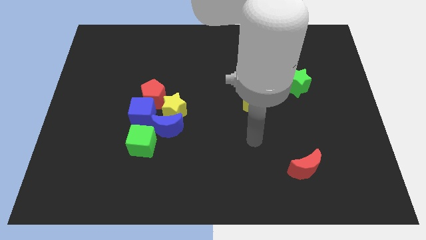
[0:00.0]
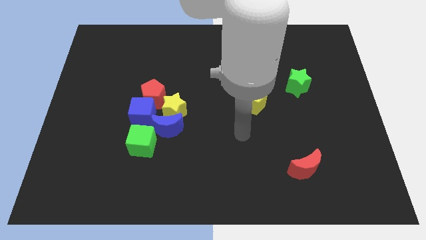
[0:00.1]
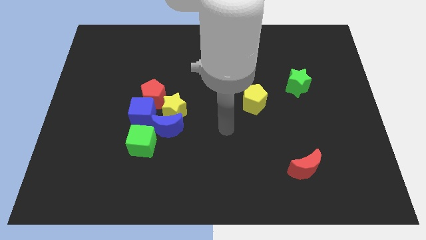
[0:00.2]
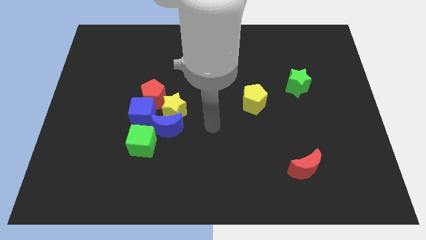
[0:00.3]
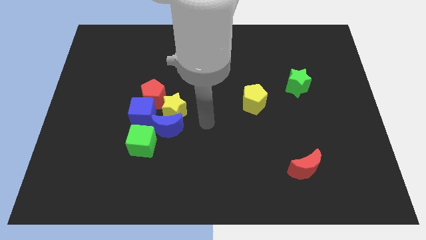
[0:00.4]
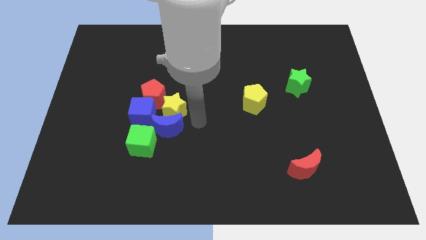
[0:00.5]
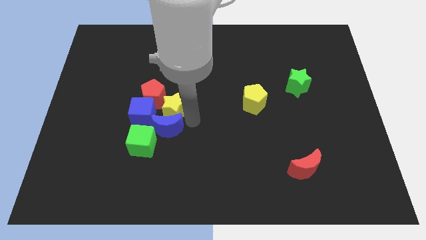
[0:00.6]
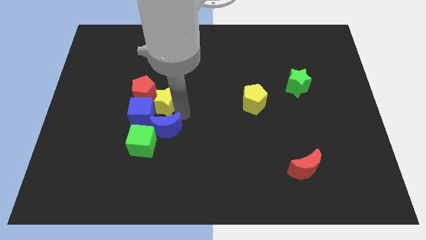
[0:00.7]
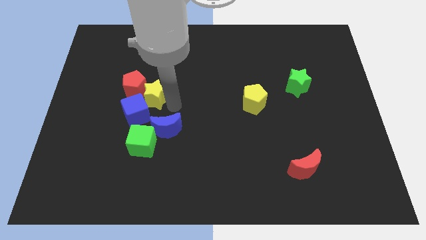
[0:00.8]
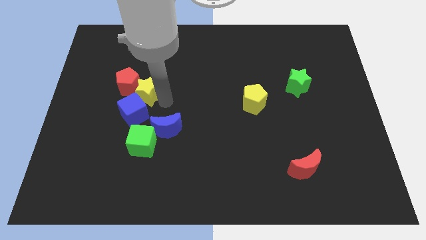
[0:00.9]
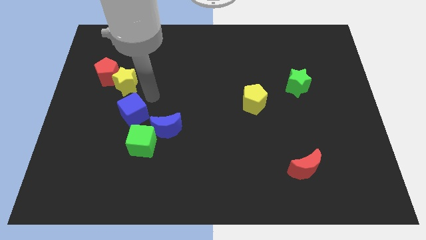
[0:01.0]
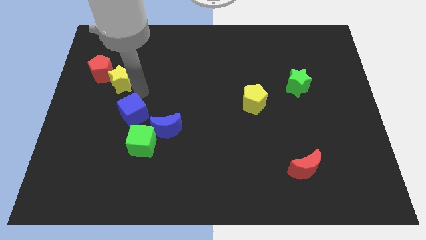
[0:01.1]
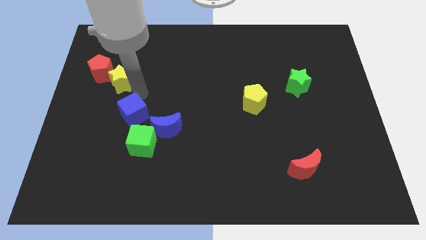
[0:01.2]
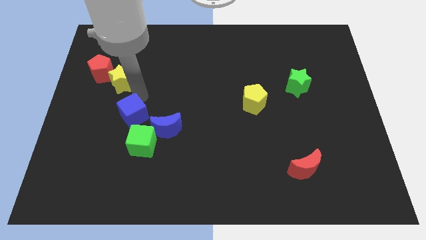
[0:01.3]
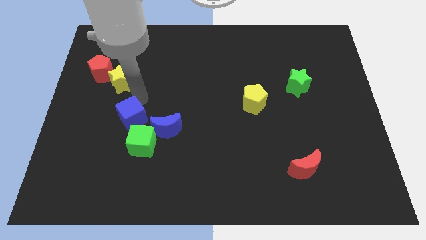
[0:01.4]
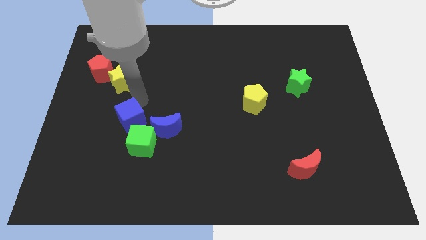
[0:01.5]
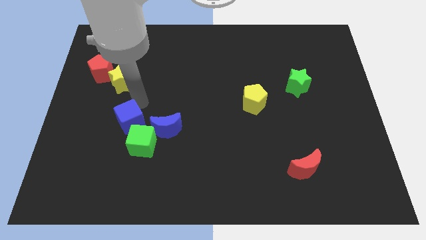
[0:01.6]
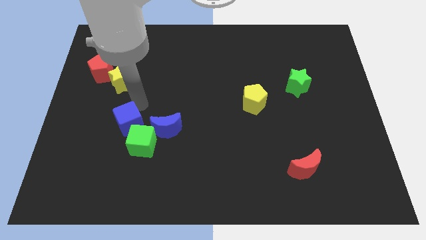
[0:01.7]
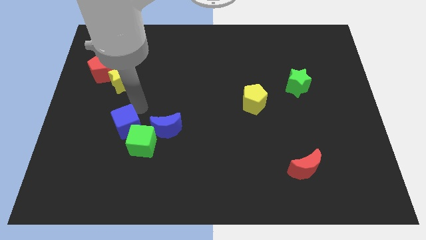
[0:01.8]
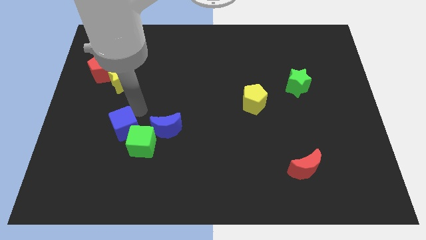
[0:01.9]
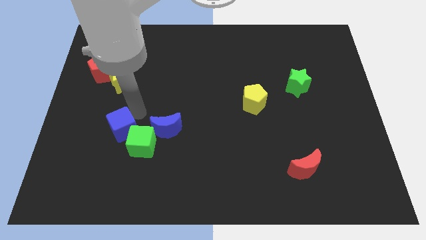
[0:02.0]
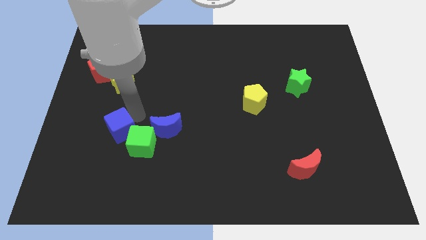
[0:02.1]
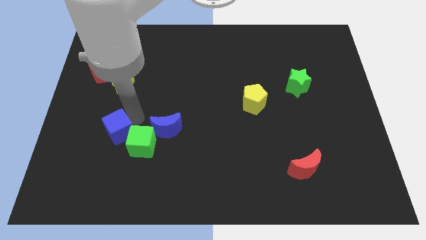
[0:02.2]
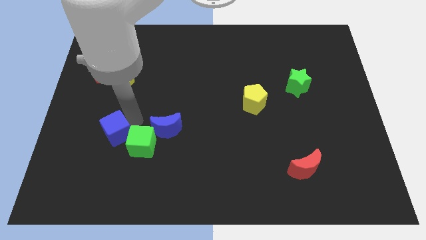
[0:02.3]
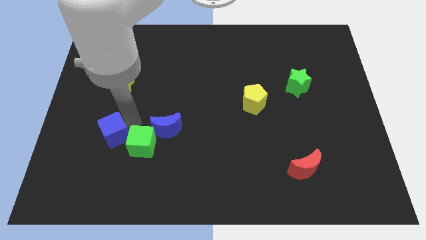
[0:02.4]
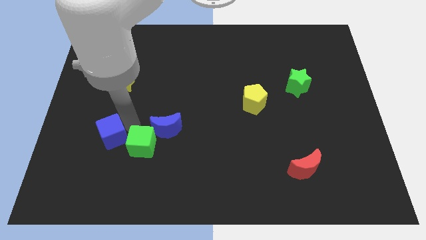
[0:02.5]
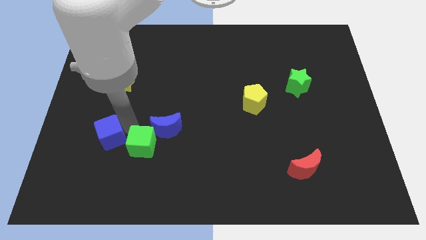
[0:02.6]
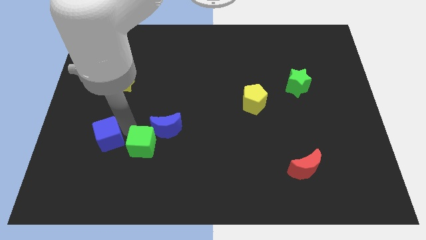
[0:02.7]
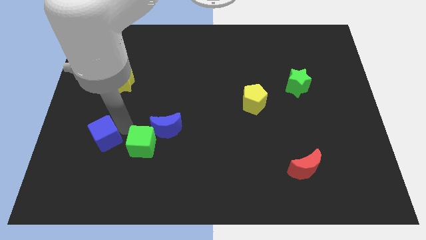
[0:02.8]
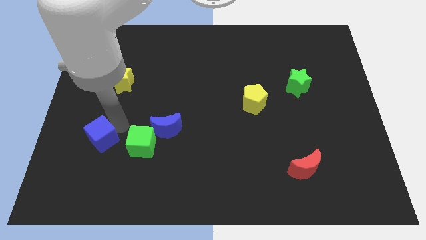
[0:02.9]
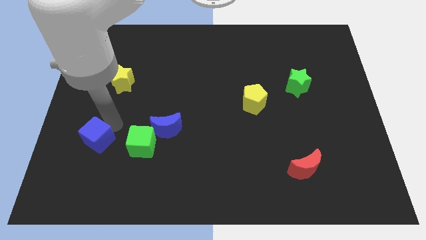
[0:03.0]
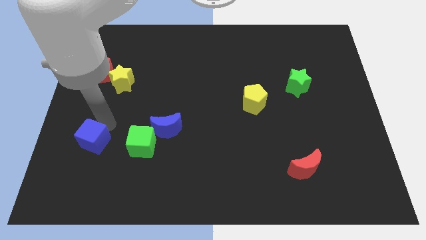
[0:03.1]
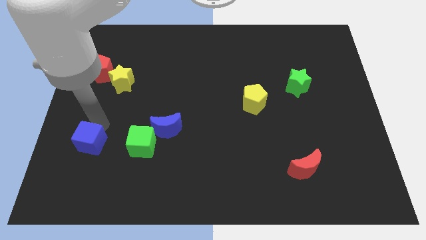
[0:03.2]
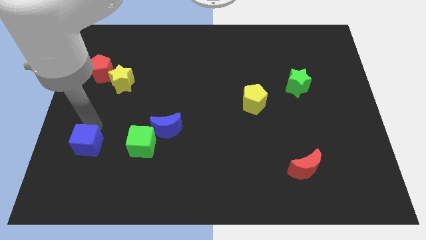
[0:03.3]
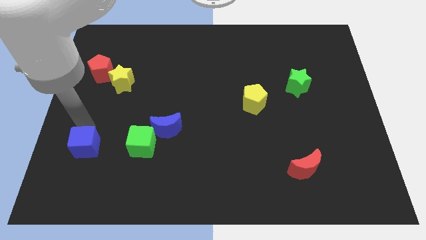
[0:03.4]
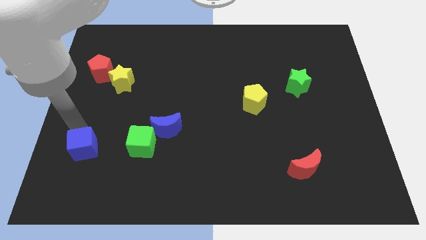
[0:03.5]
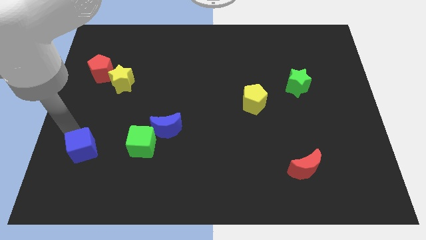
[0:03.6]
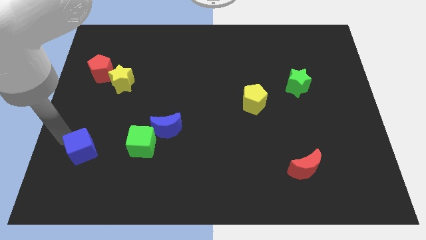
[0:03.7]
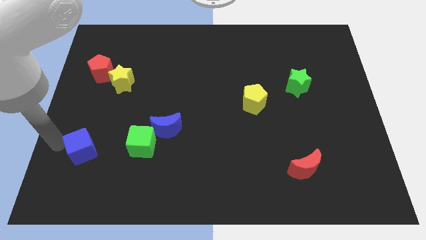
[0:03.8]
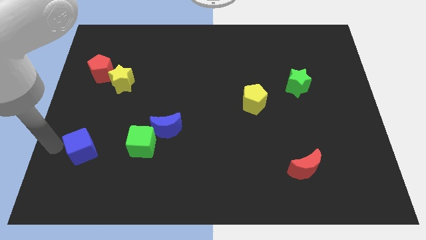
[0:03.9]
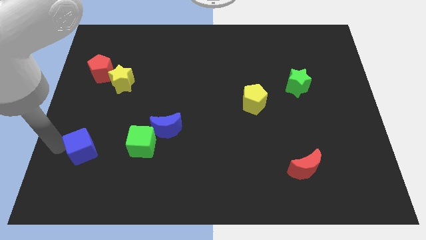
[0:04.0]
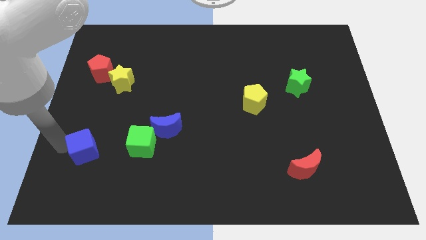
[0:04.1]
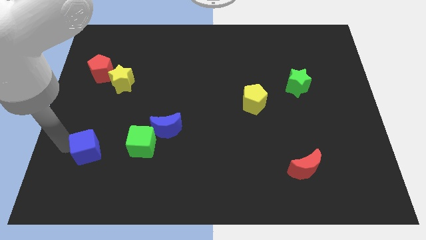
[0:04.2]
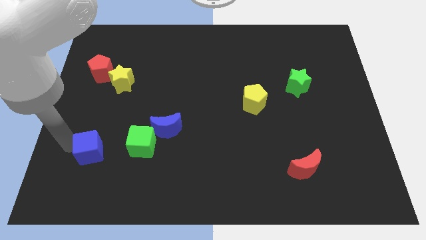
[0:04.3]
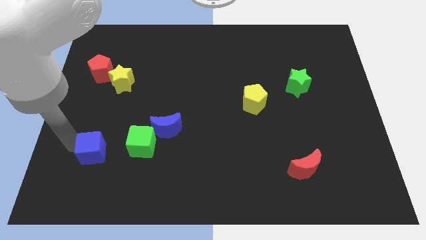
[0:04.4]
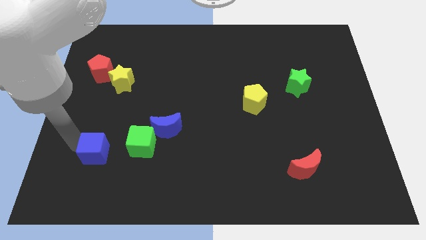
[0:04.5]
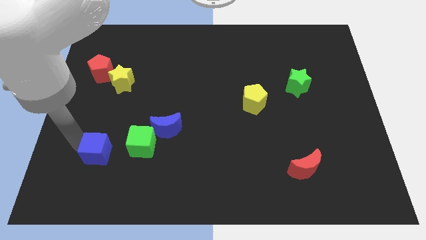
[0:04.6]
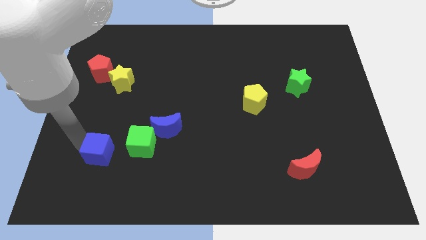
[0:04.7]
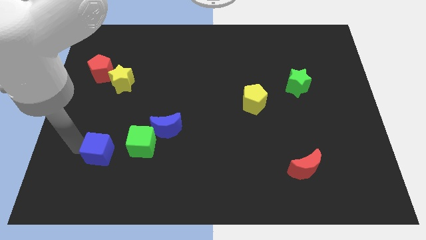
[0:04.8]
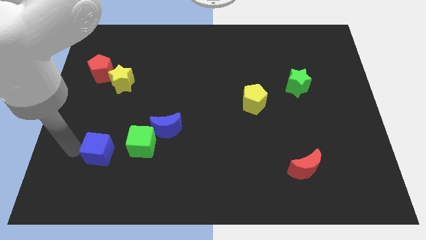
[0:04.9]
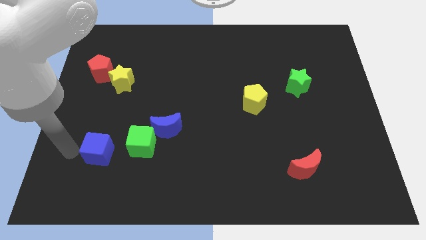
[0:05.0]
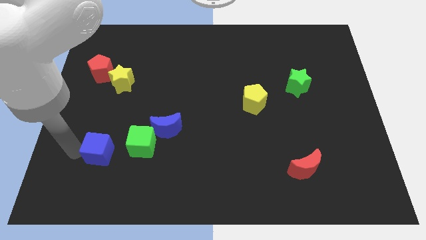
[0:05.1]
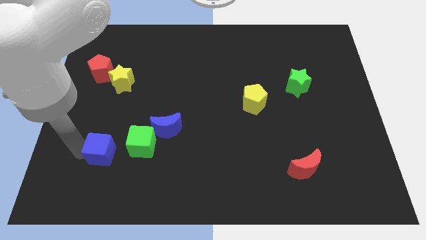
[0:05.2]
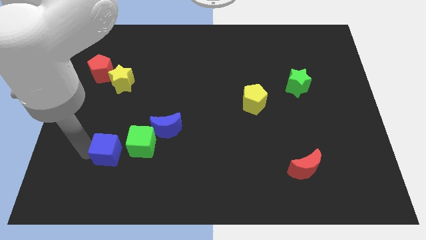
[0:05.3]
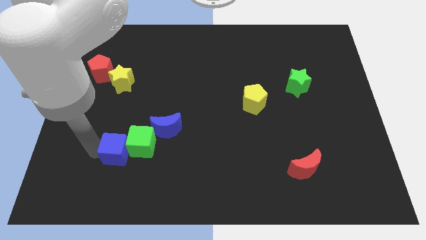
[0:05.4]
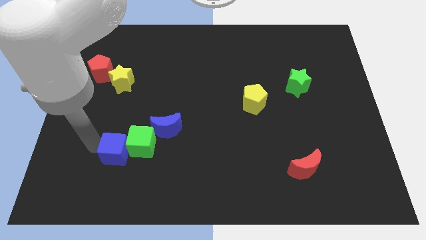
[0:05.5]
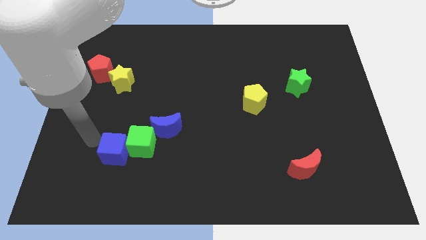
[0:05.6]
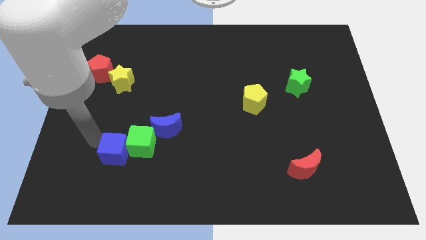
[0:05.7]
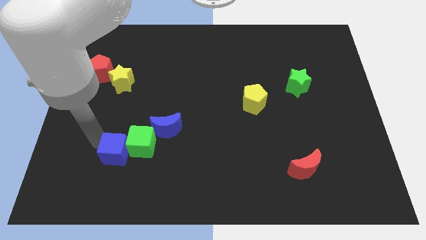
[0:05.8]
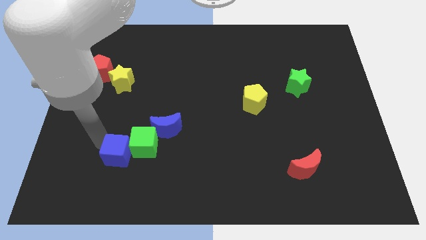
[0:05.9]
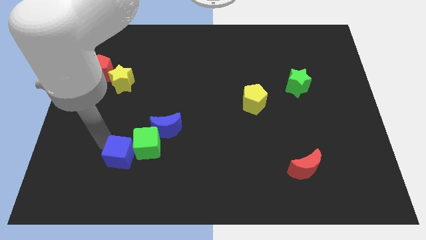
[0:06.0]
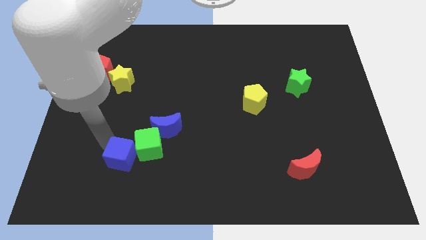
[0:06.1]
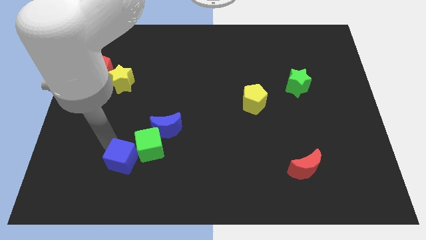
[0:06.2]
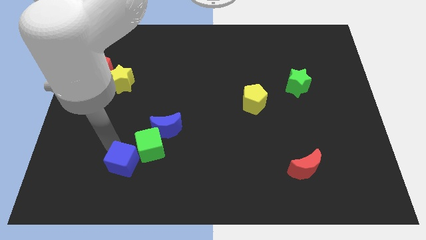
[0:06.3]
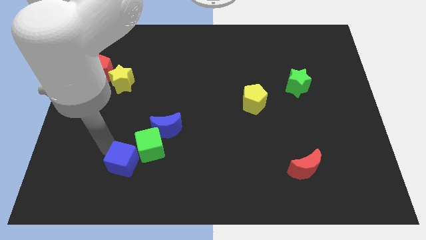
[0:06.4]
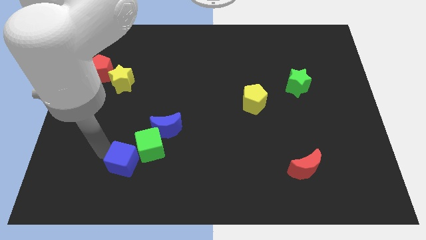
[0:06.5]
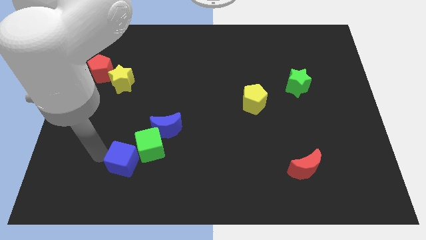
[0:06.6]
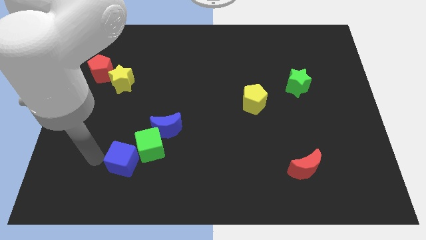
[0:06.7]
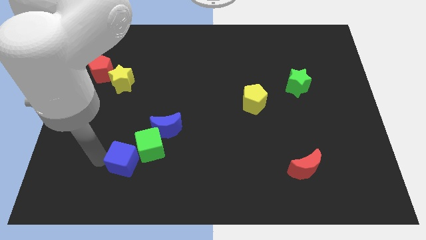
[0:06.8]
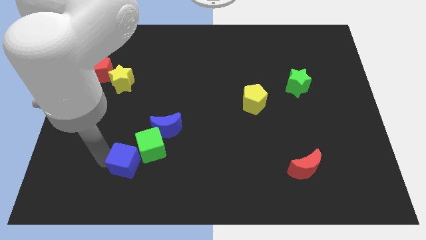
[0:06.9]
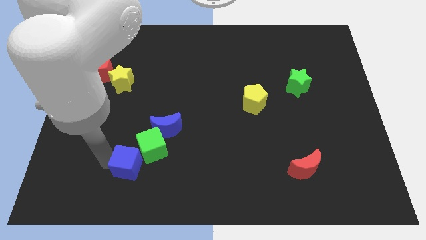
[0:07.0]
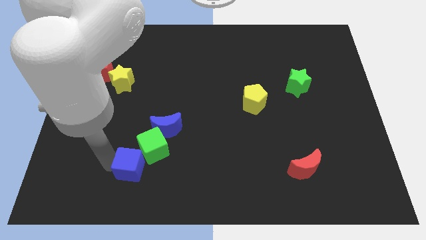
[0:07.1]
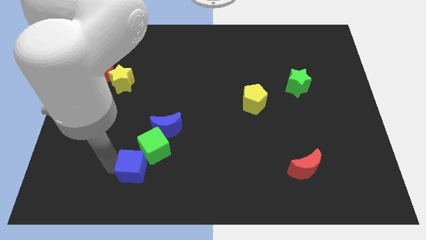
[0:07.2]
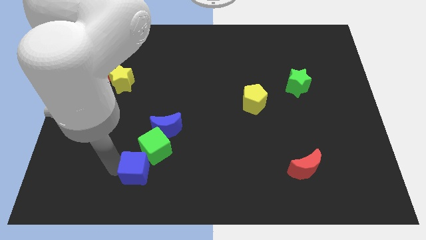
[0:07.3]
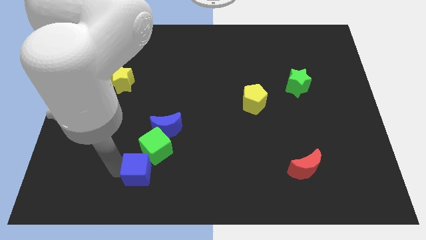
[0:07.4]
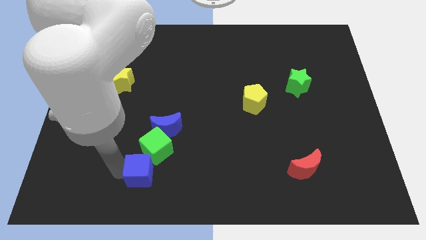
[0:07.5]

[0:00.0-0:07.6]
push the blue cube diagonally downwards and to the right slightly

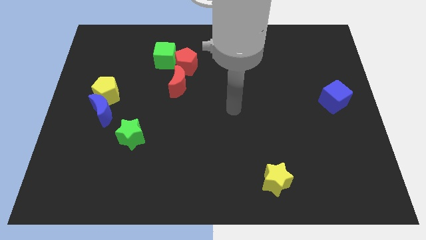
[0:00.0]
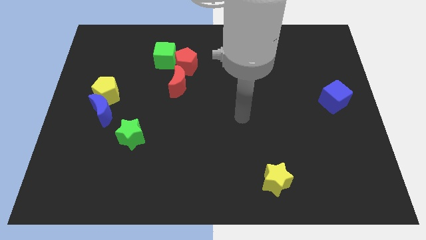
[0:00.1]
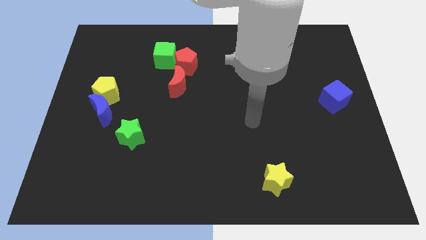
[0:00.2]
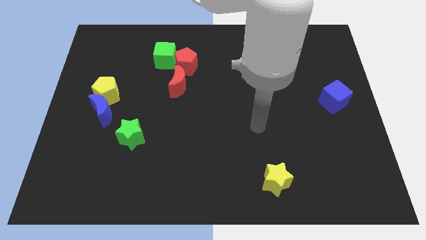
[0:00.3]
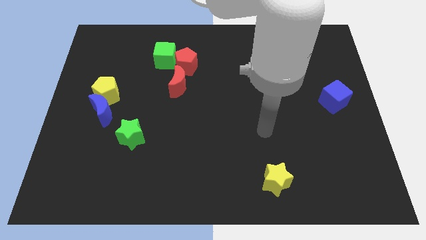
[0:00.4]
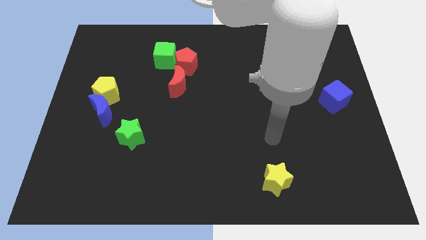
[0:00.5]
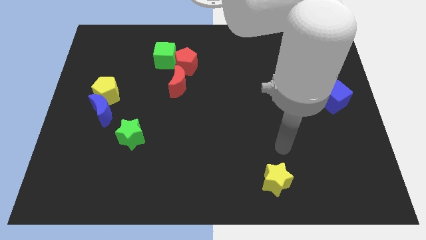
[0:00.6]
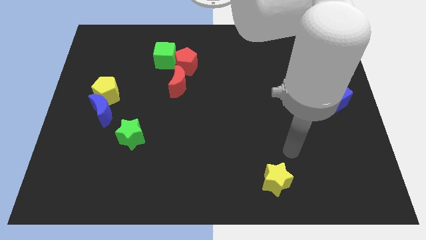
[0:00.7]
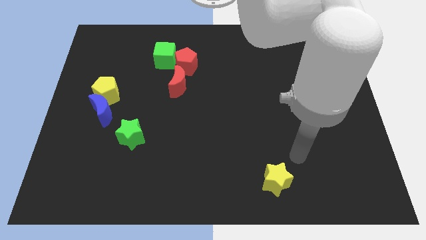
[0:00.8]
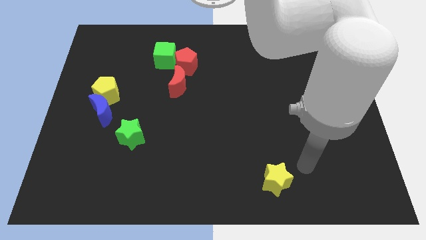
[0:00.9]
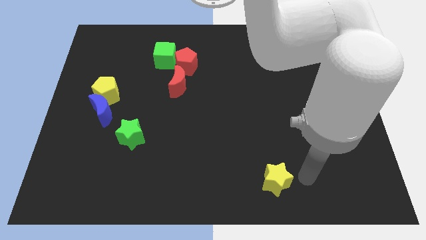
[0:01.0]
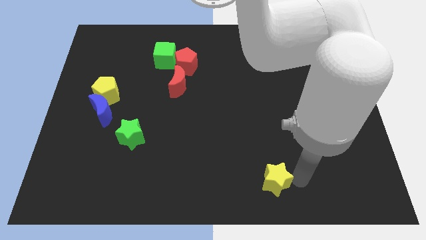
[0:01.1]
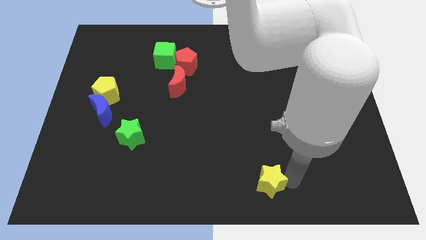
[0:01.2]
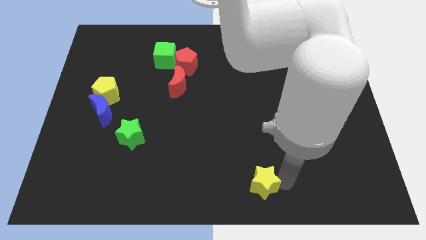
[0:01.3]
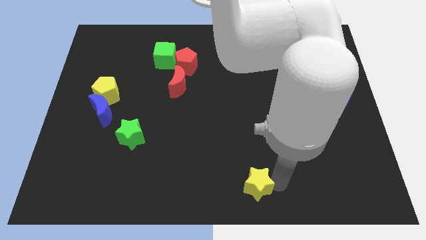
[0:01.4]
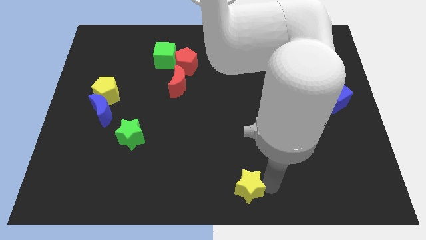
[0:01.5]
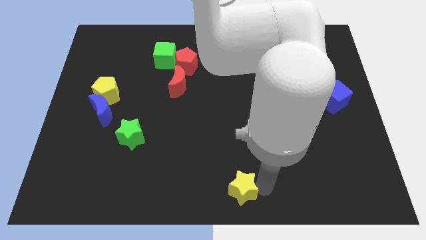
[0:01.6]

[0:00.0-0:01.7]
slightly slide the yellow star left
